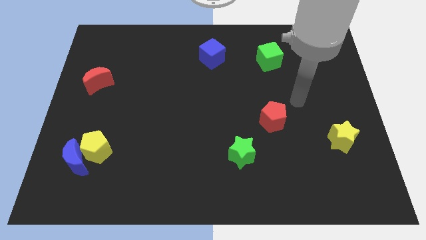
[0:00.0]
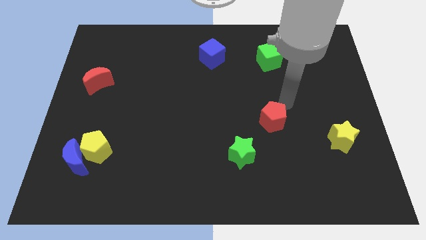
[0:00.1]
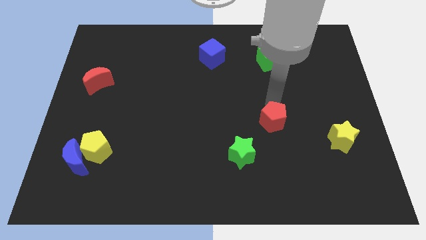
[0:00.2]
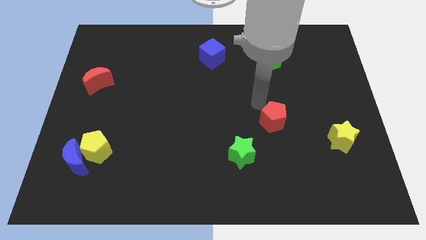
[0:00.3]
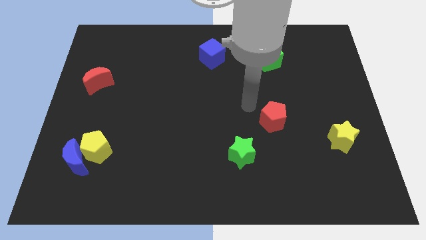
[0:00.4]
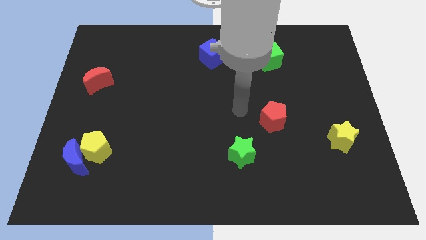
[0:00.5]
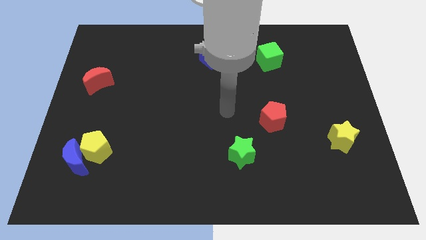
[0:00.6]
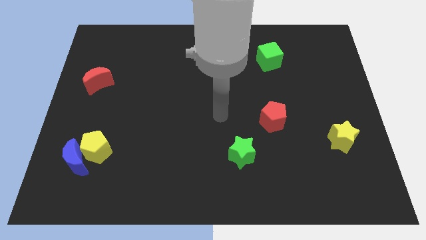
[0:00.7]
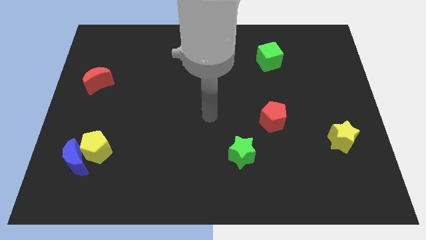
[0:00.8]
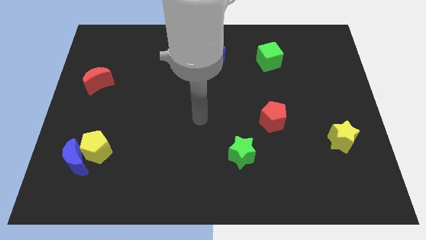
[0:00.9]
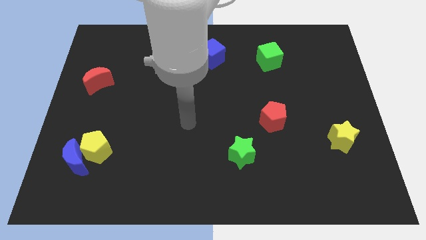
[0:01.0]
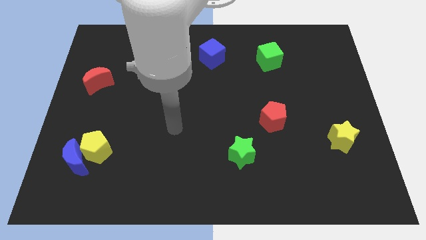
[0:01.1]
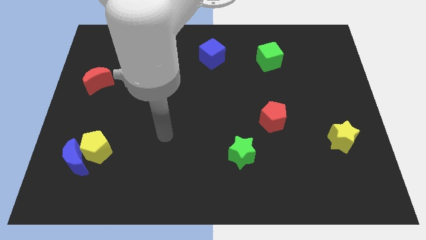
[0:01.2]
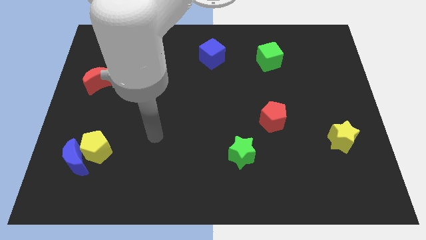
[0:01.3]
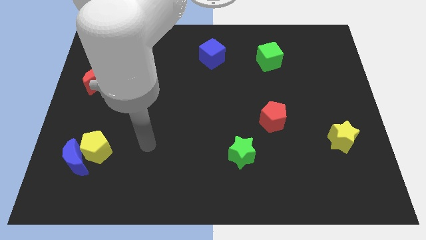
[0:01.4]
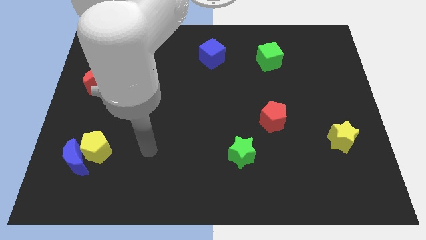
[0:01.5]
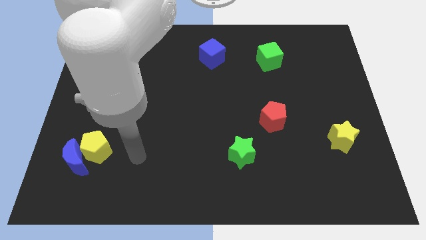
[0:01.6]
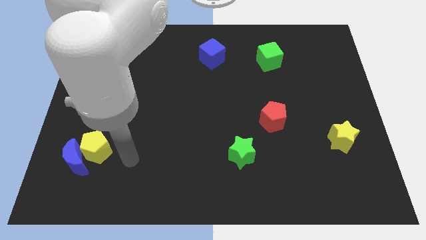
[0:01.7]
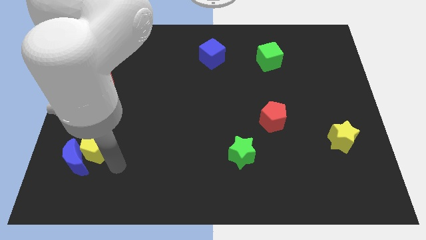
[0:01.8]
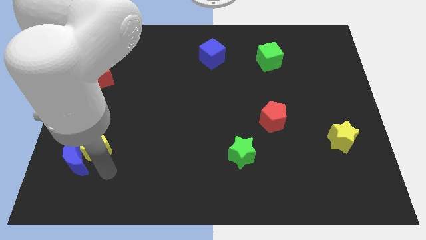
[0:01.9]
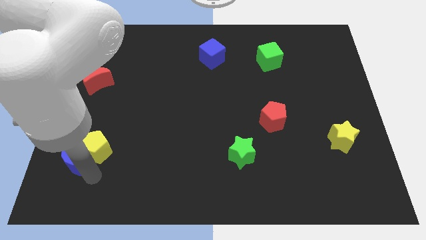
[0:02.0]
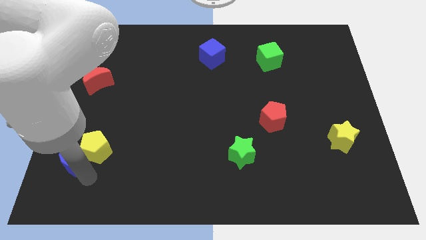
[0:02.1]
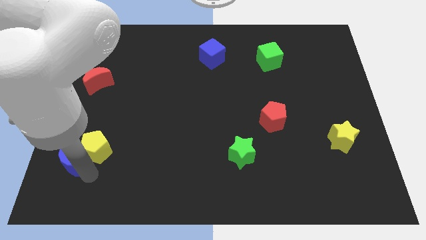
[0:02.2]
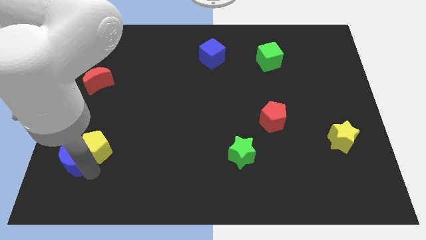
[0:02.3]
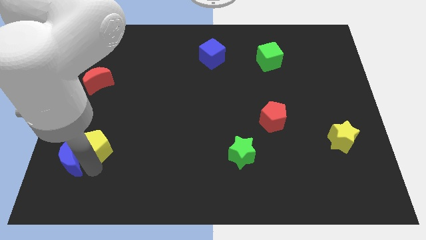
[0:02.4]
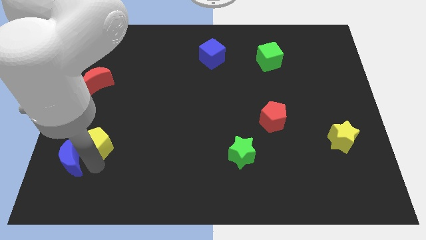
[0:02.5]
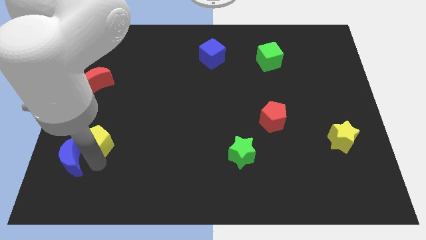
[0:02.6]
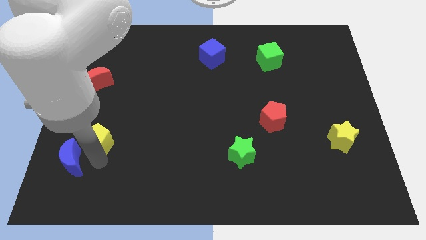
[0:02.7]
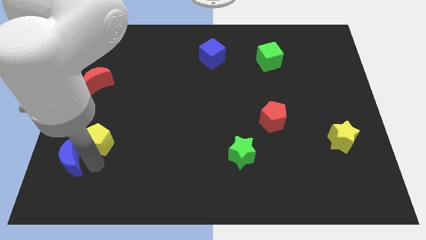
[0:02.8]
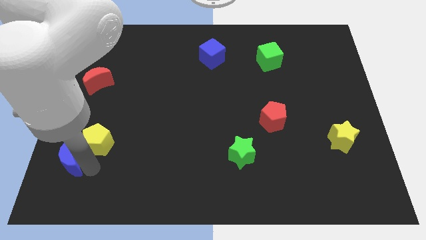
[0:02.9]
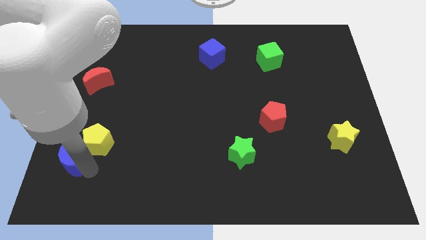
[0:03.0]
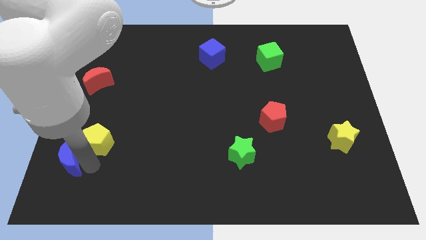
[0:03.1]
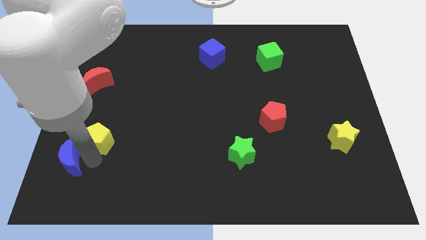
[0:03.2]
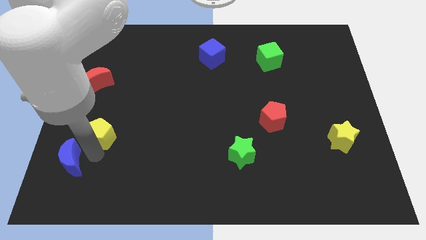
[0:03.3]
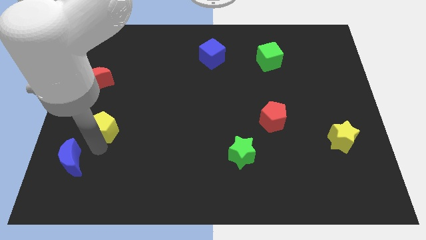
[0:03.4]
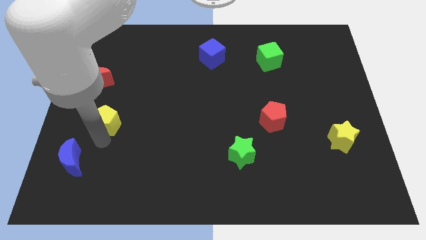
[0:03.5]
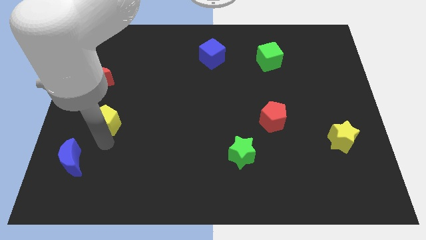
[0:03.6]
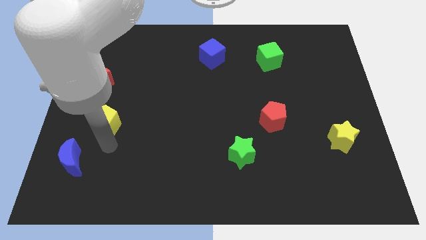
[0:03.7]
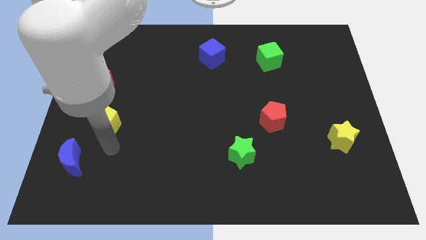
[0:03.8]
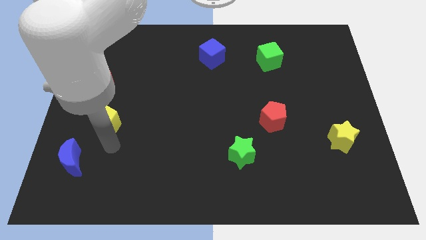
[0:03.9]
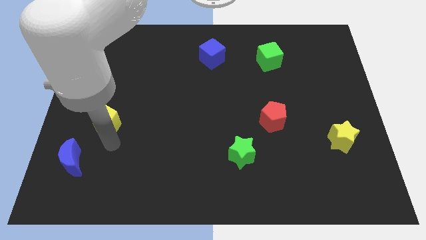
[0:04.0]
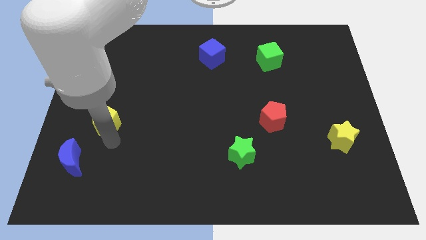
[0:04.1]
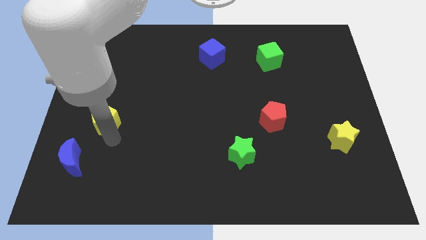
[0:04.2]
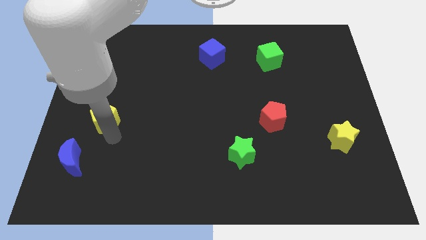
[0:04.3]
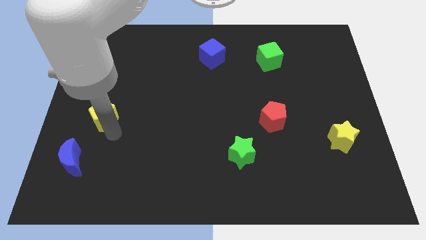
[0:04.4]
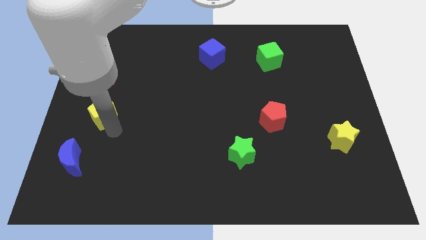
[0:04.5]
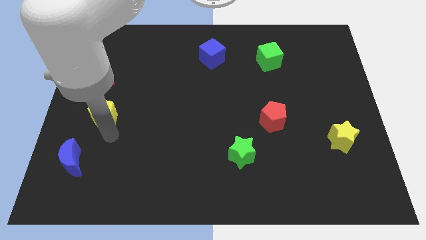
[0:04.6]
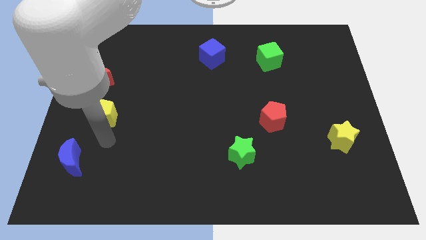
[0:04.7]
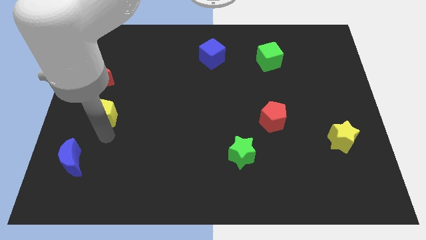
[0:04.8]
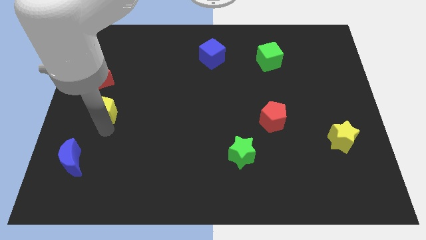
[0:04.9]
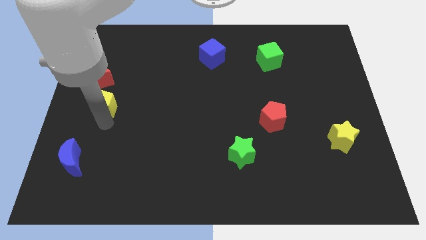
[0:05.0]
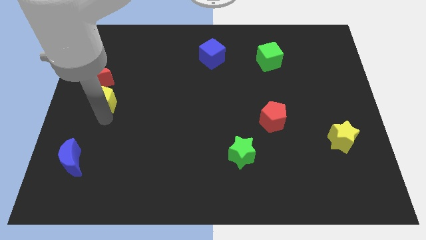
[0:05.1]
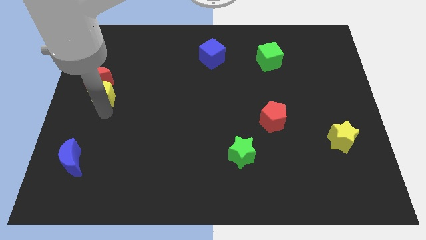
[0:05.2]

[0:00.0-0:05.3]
move the yellow pentagon next to the red moon

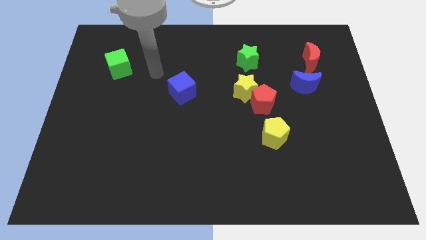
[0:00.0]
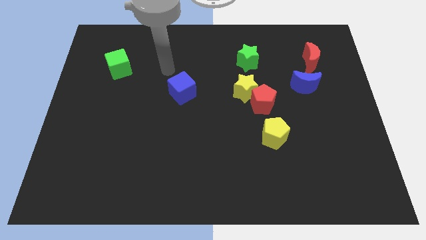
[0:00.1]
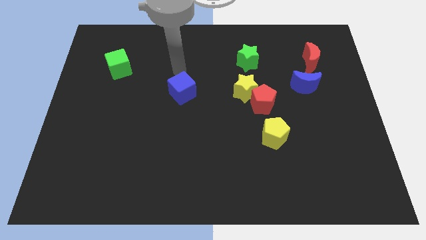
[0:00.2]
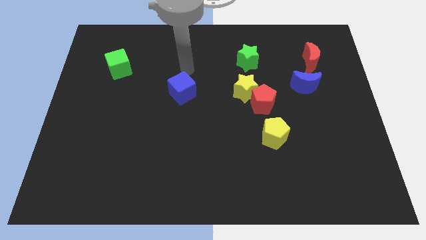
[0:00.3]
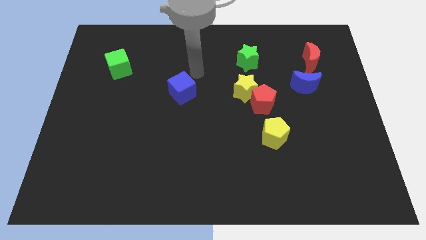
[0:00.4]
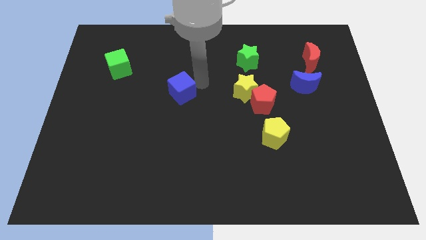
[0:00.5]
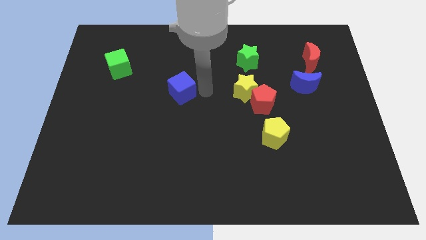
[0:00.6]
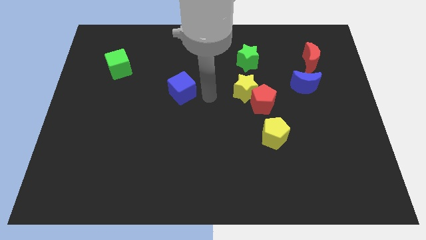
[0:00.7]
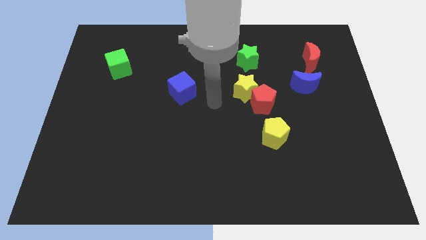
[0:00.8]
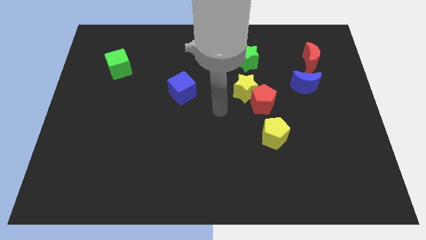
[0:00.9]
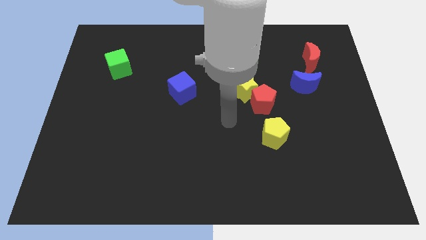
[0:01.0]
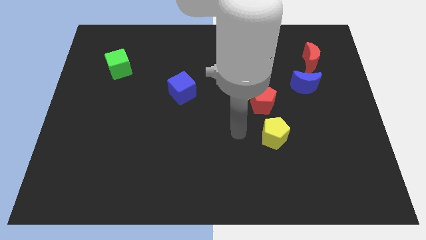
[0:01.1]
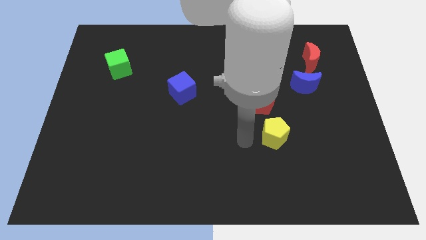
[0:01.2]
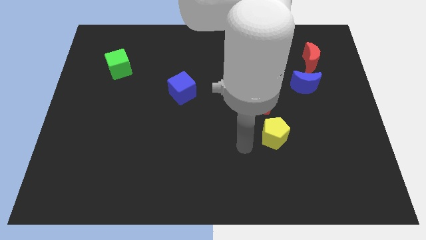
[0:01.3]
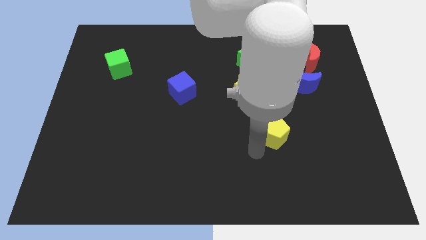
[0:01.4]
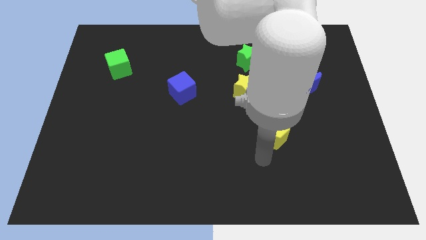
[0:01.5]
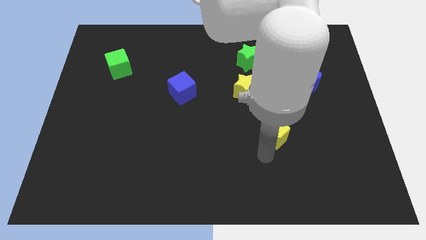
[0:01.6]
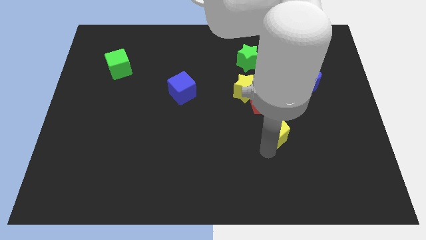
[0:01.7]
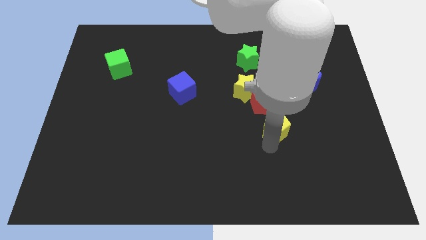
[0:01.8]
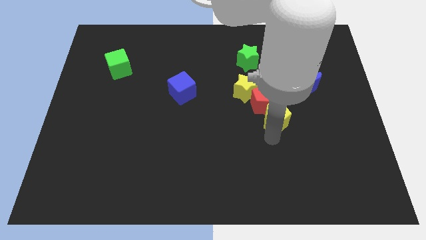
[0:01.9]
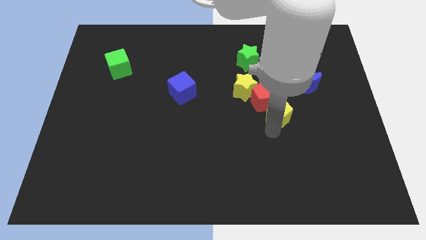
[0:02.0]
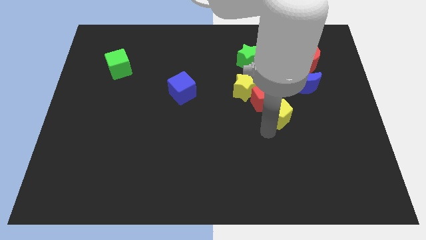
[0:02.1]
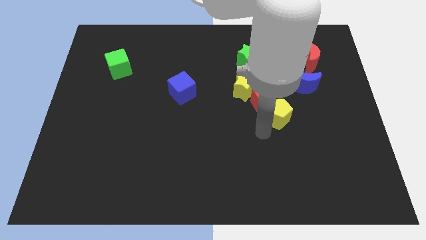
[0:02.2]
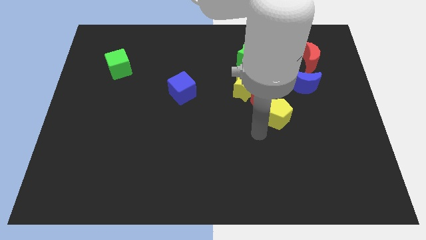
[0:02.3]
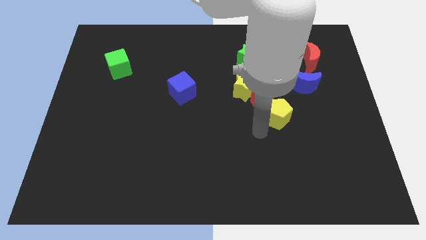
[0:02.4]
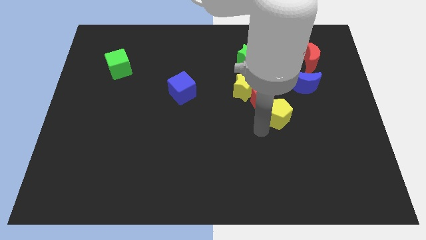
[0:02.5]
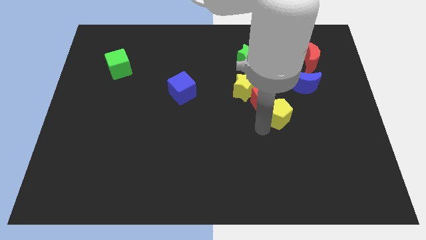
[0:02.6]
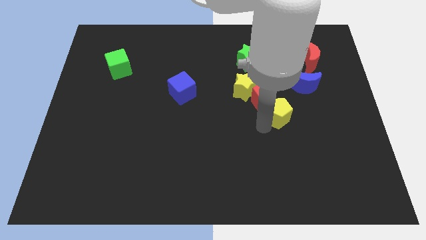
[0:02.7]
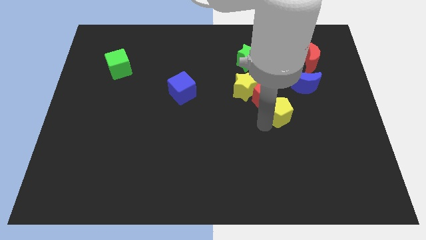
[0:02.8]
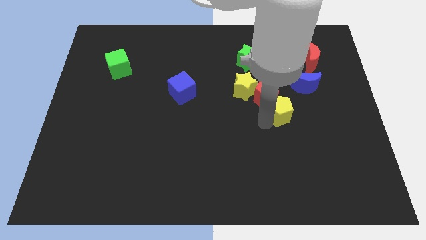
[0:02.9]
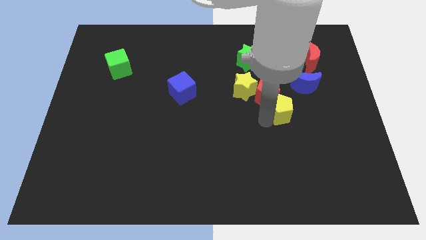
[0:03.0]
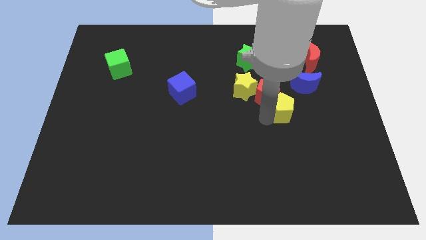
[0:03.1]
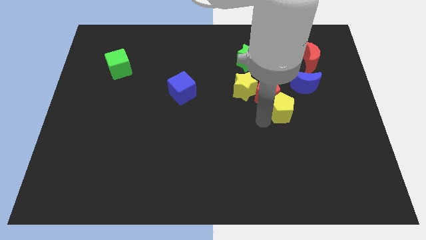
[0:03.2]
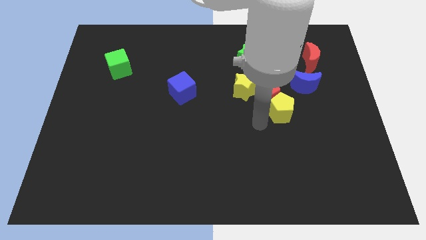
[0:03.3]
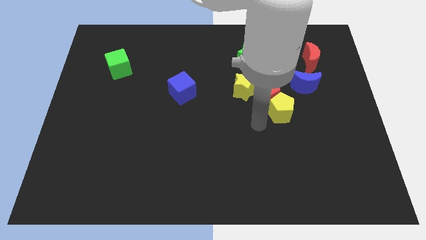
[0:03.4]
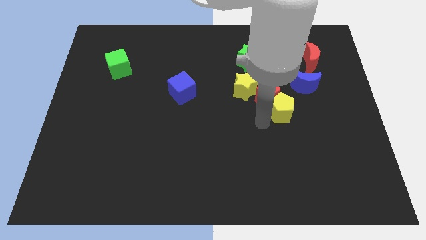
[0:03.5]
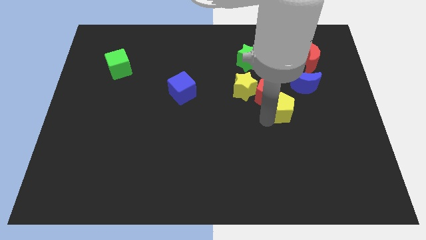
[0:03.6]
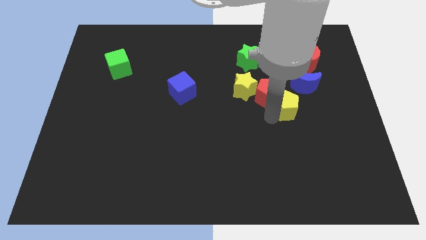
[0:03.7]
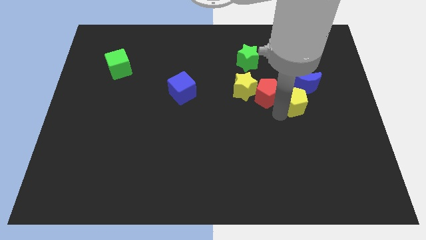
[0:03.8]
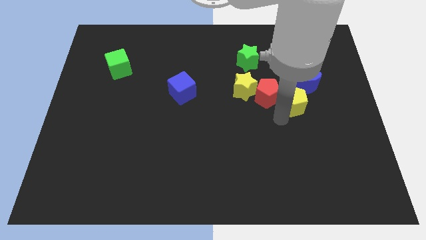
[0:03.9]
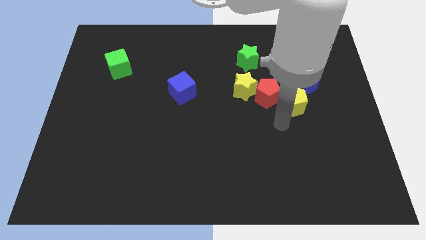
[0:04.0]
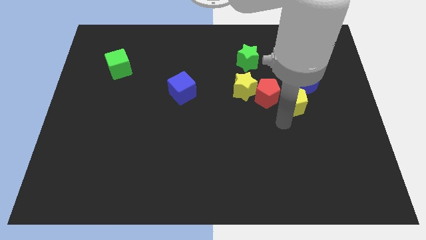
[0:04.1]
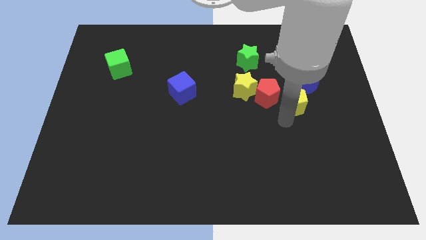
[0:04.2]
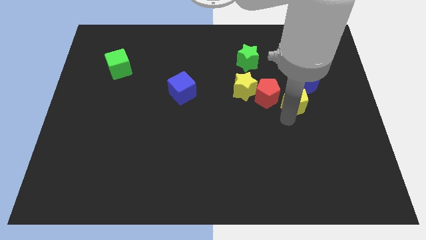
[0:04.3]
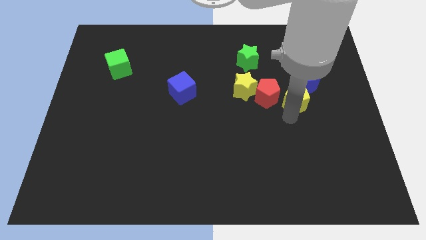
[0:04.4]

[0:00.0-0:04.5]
slide the yellow pentagon next to the blue moon
